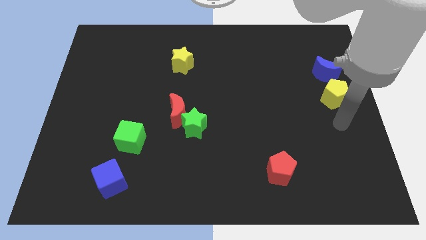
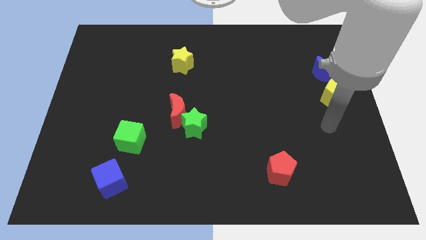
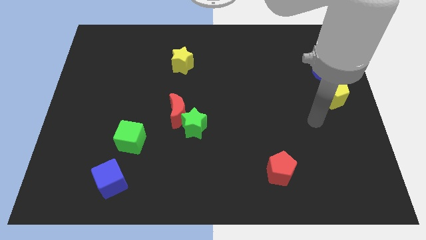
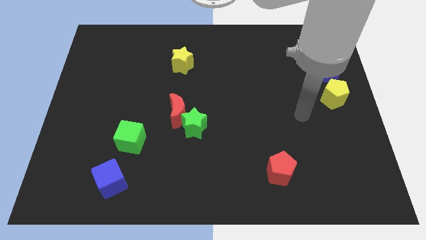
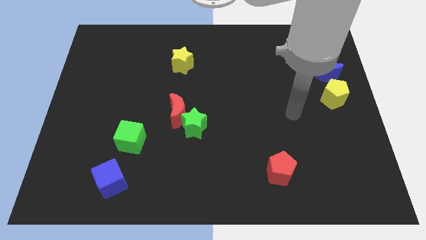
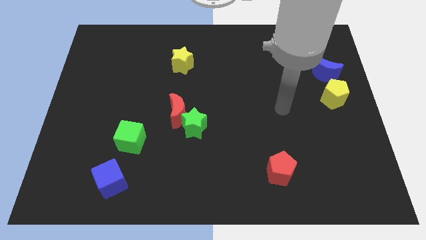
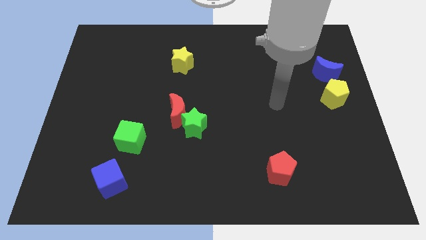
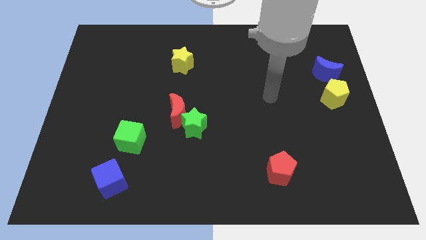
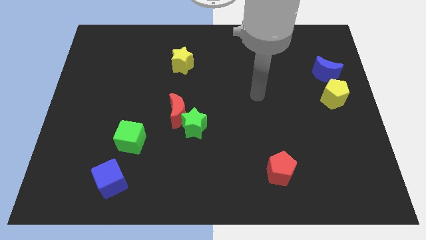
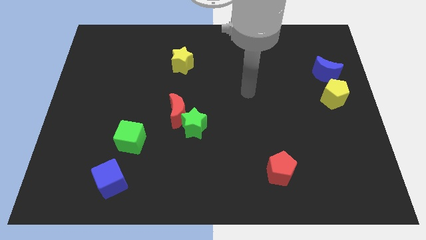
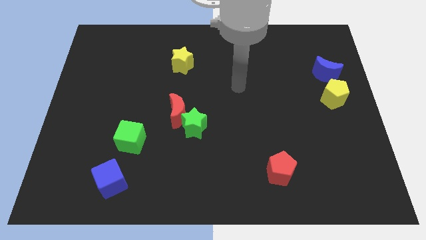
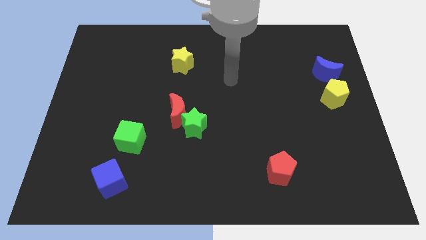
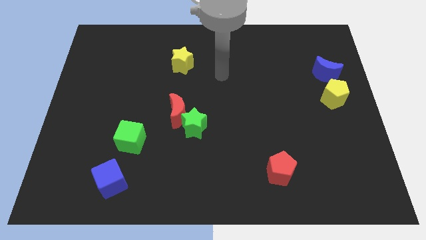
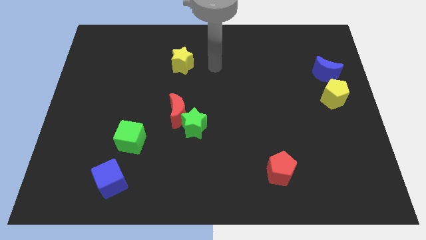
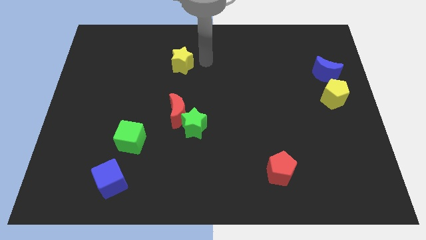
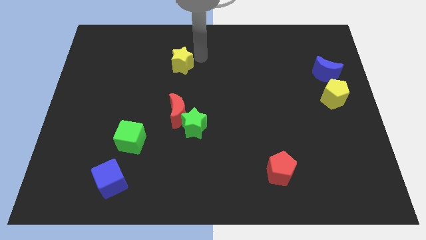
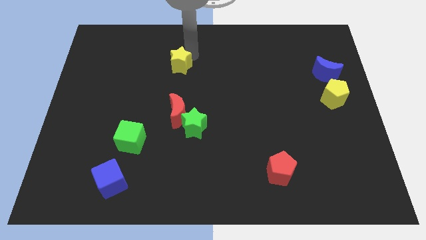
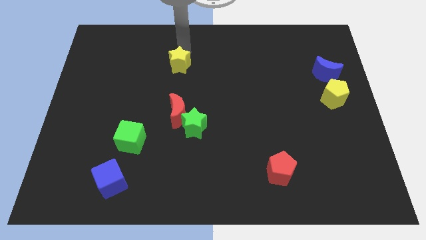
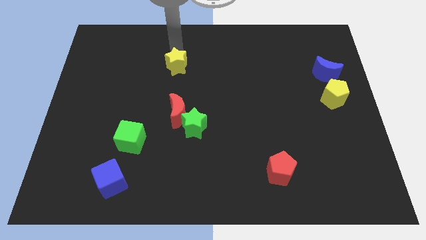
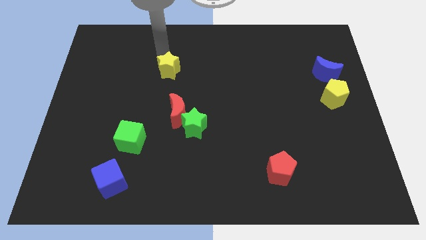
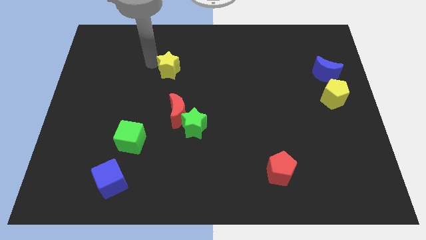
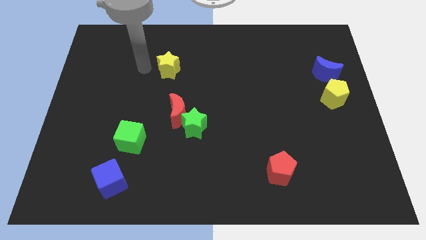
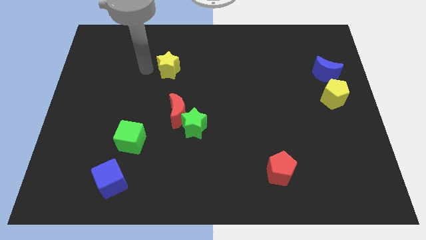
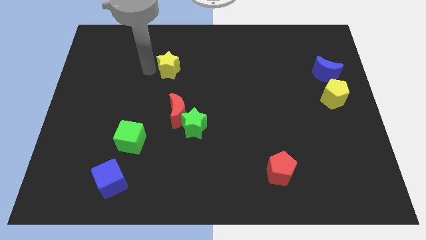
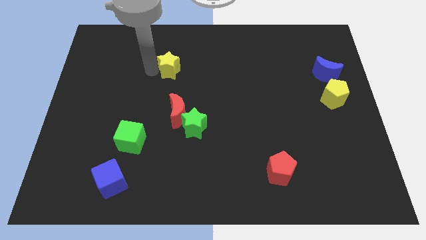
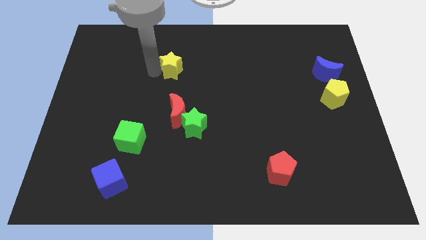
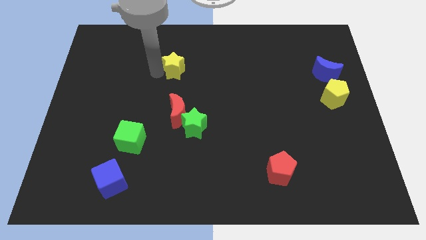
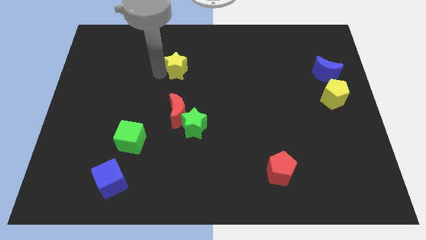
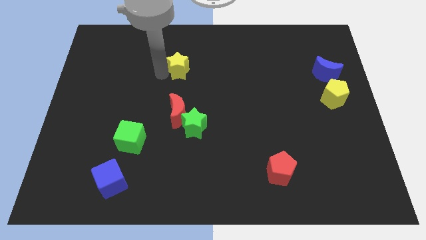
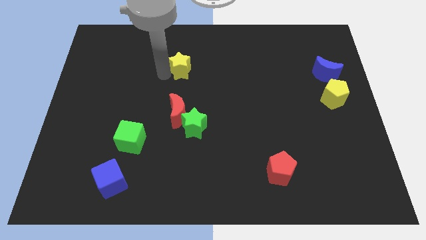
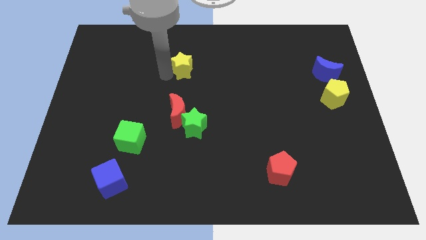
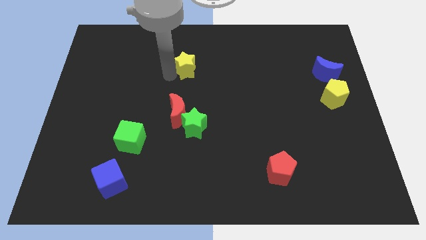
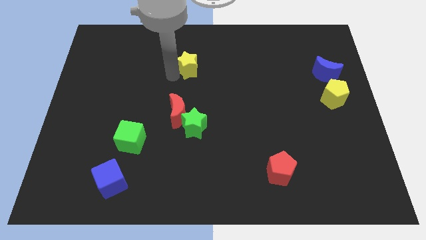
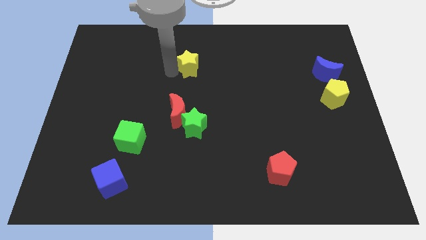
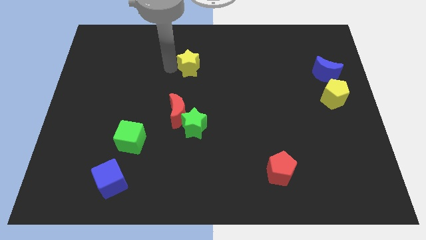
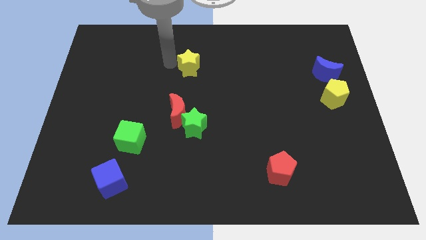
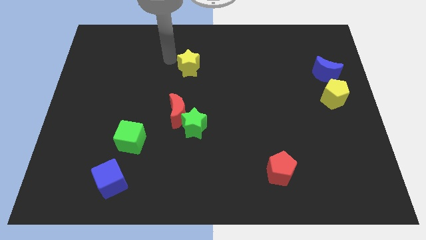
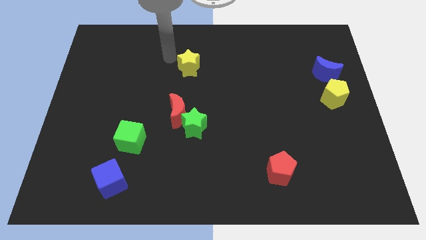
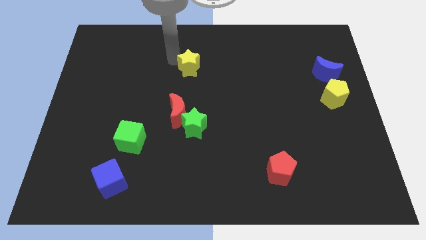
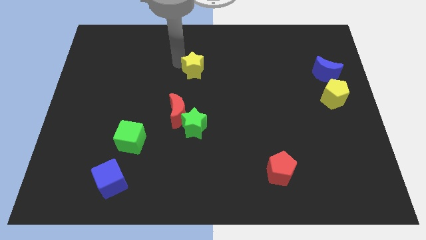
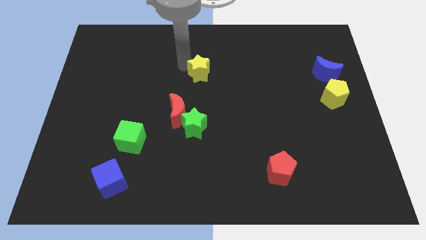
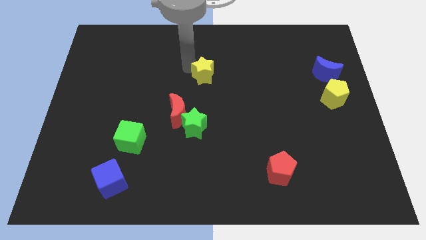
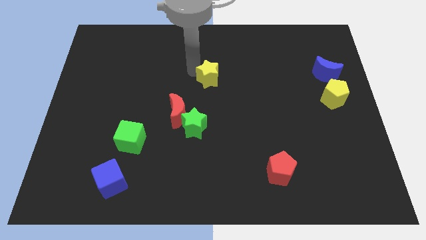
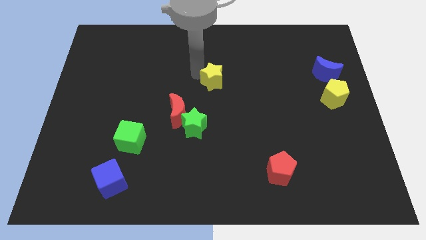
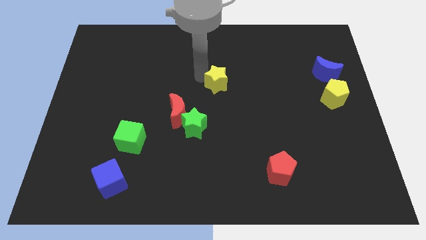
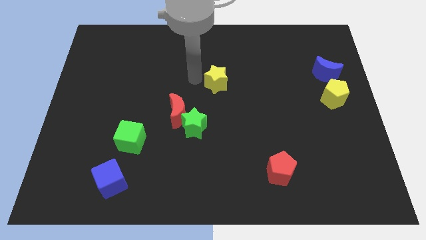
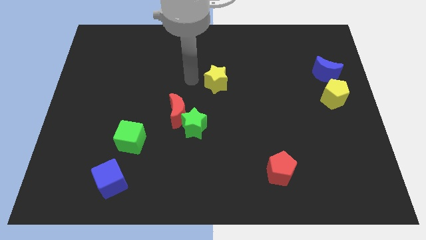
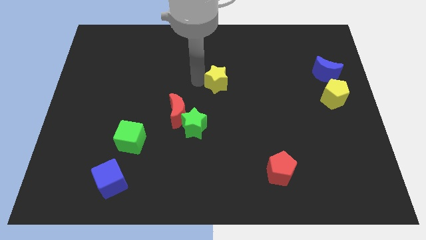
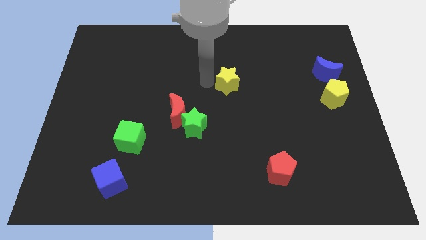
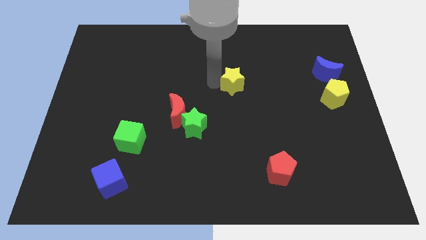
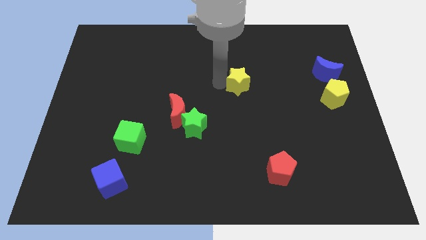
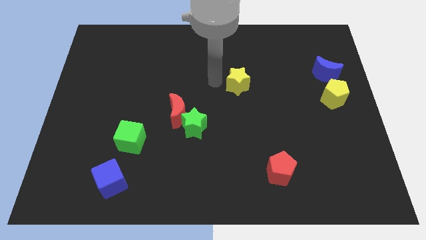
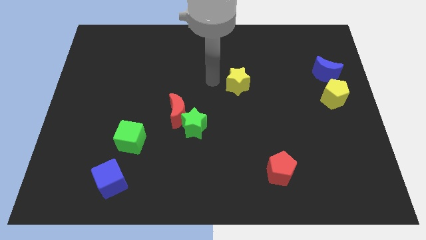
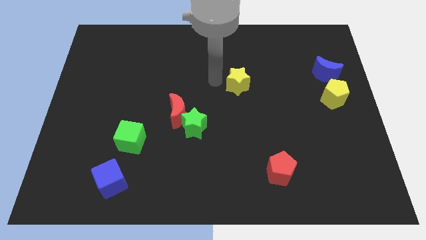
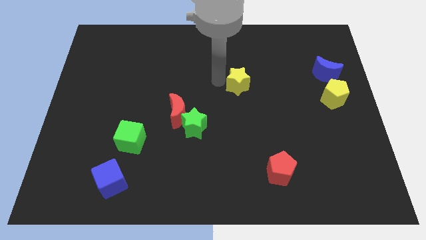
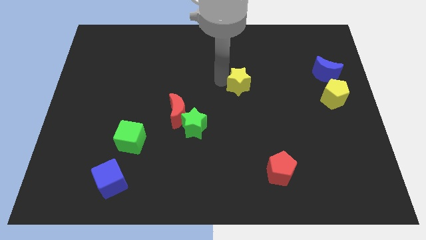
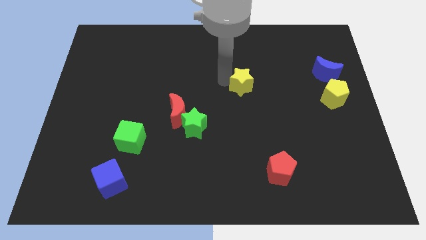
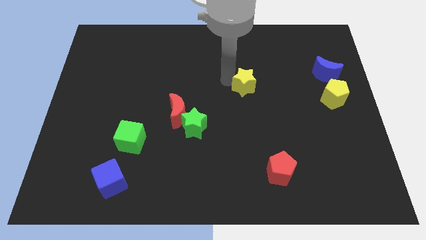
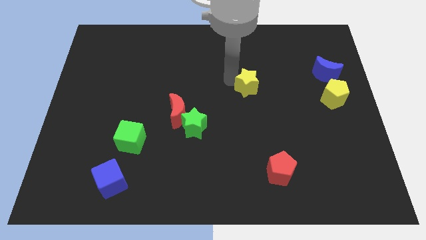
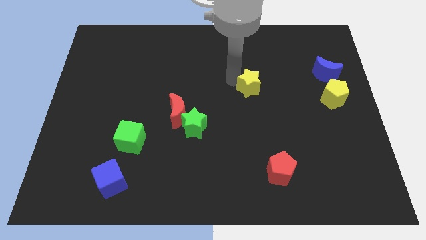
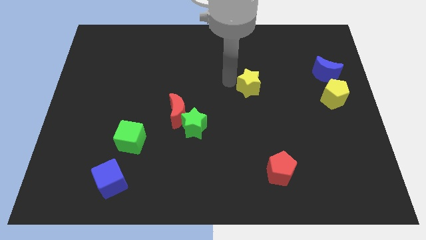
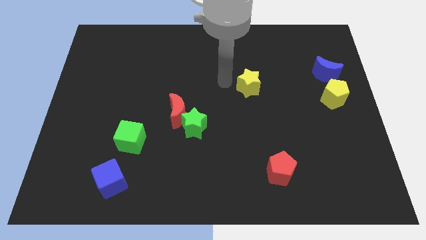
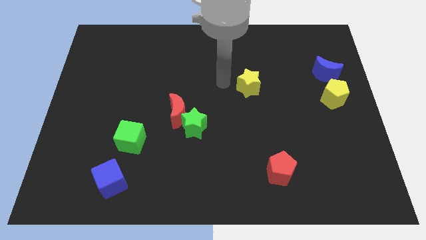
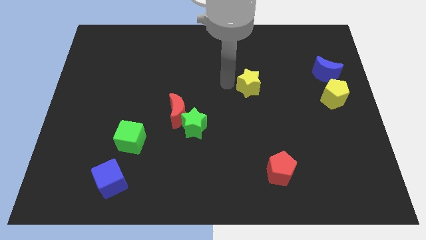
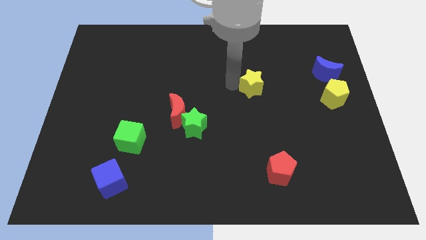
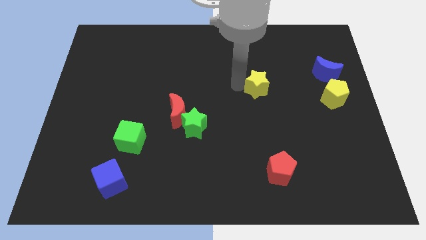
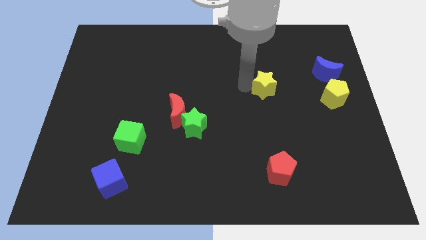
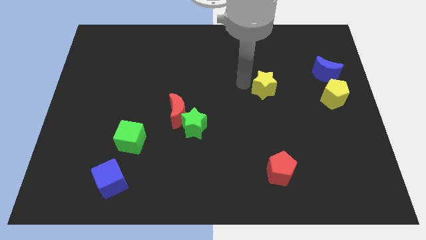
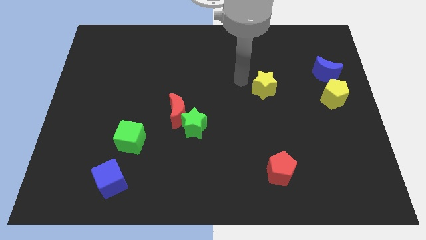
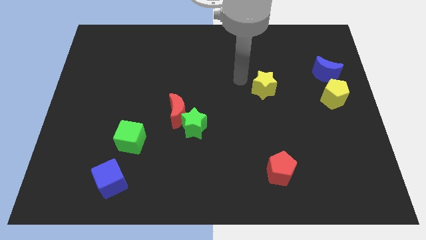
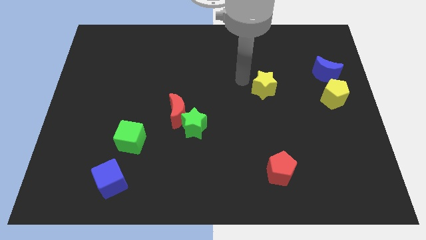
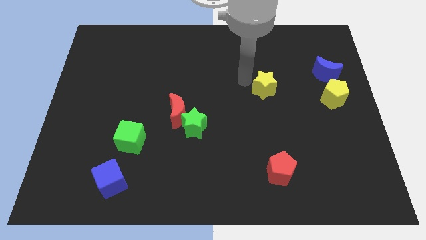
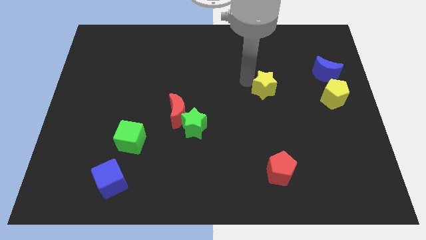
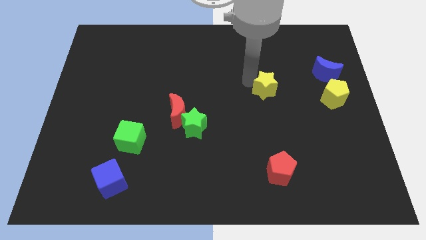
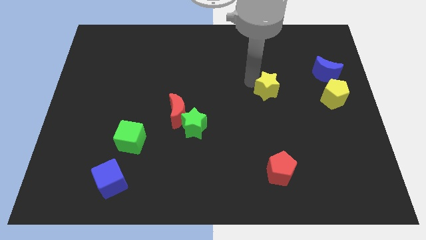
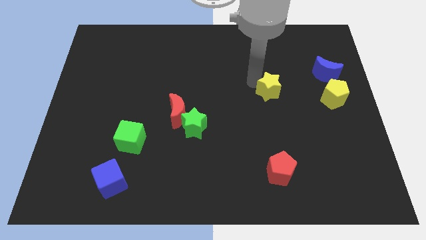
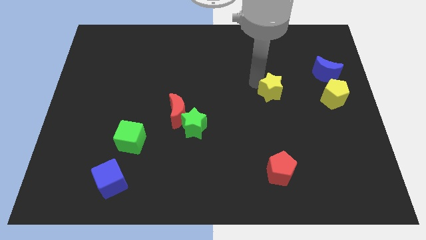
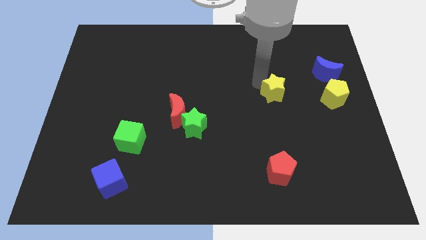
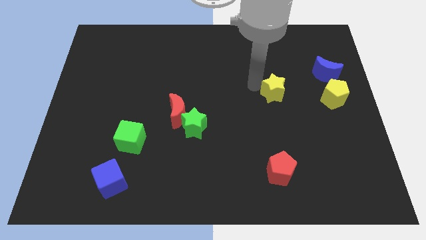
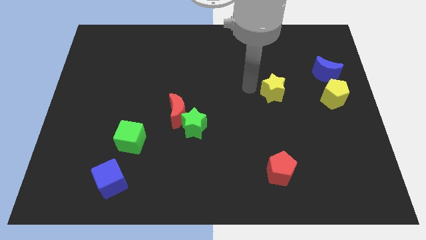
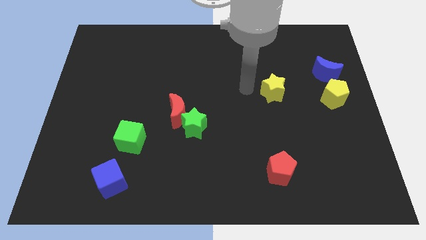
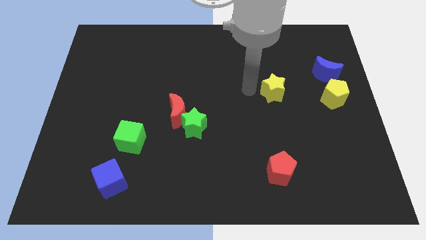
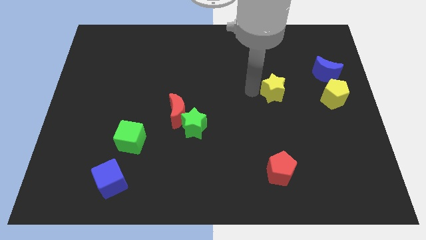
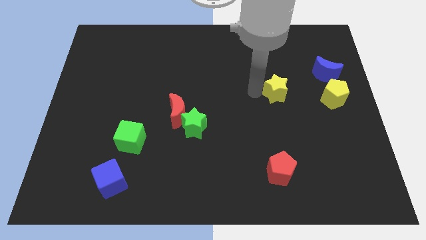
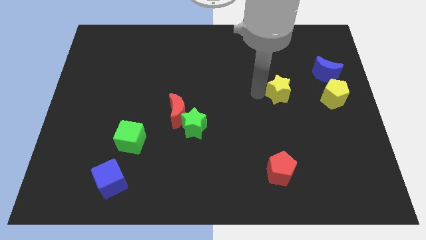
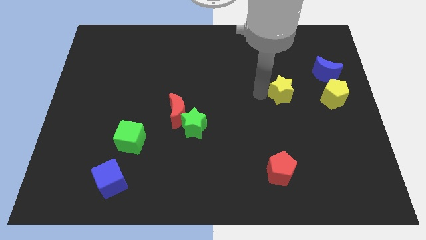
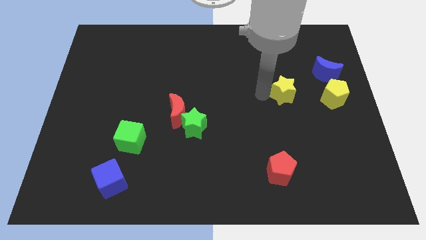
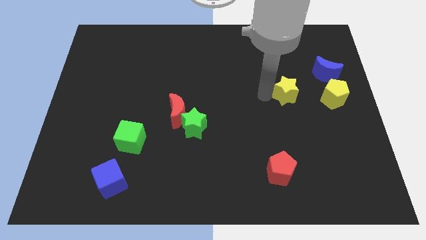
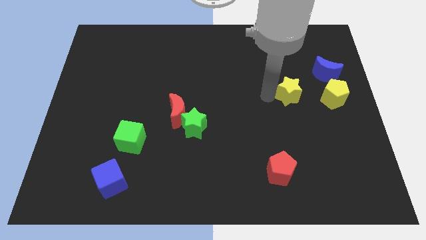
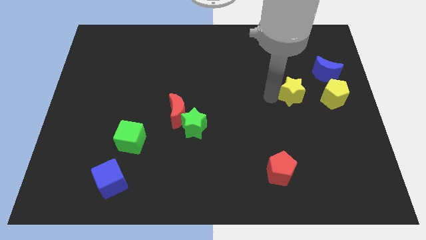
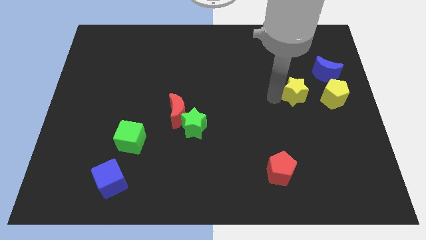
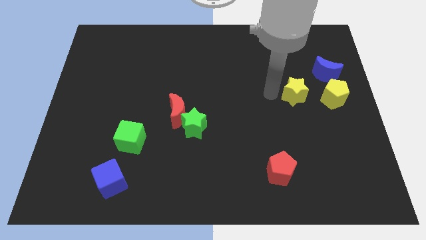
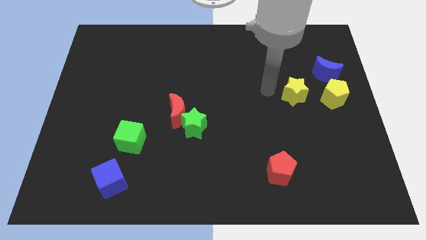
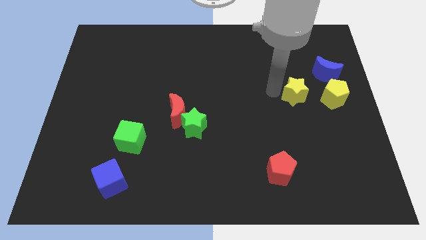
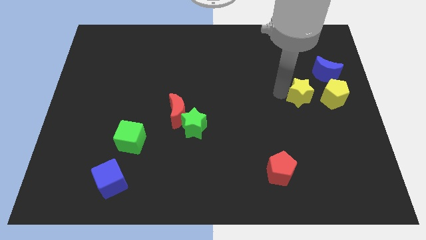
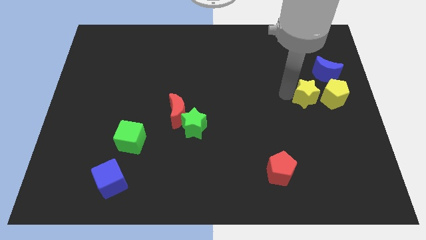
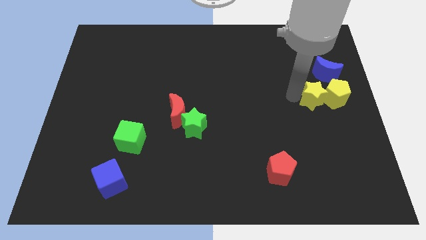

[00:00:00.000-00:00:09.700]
put the yellow star next to the yellow pentagon
